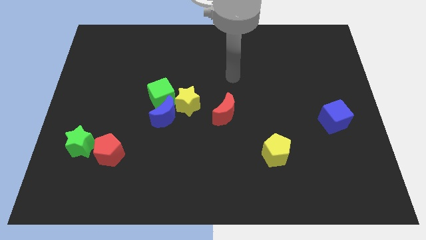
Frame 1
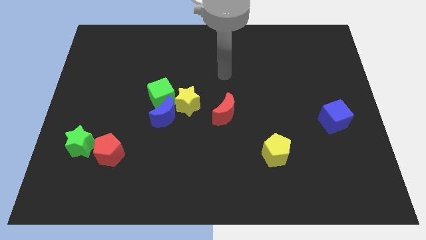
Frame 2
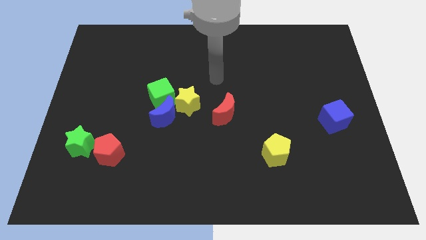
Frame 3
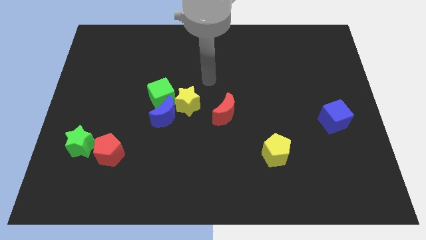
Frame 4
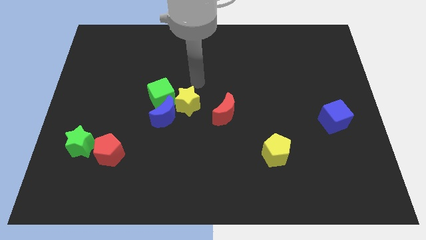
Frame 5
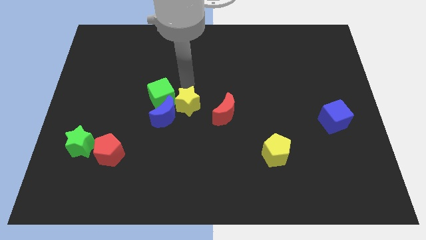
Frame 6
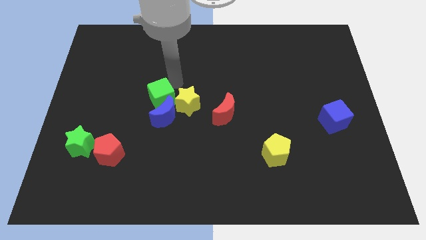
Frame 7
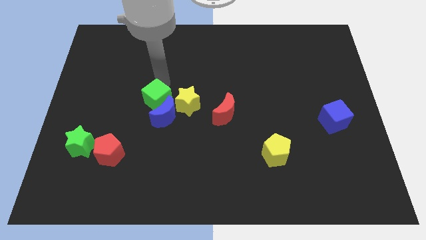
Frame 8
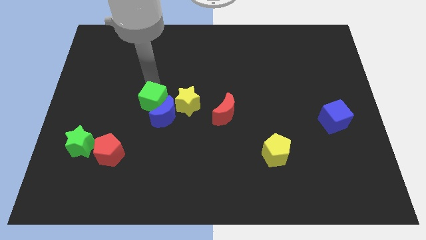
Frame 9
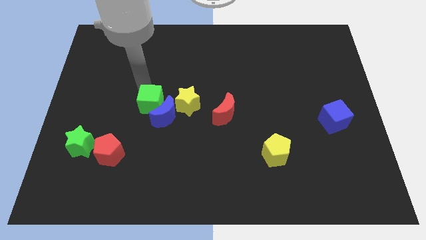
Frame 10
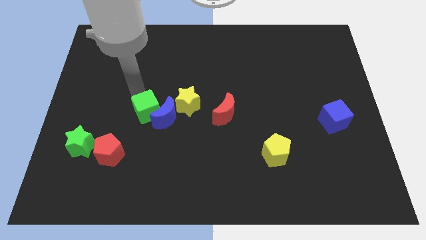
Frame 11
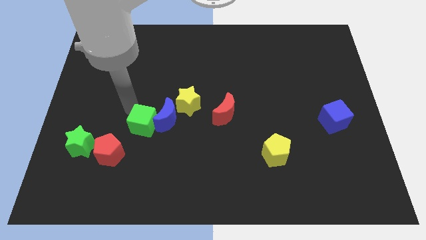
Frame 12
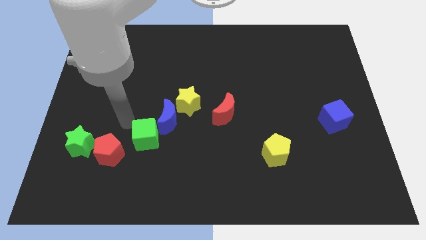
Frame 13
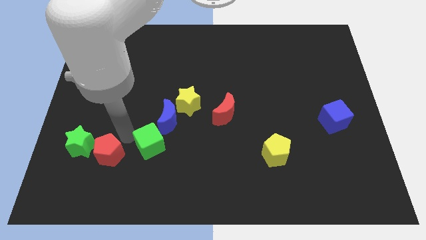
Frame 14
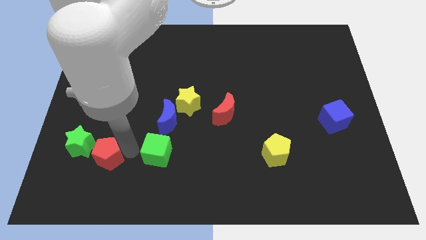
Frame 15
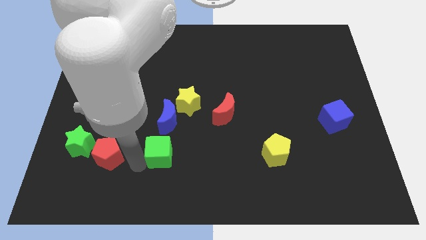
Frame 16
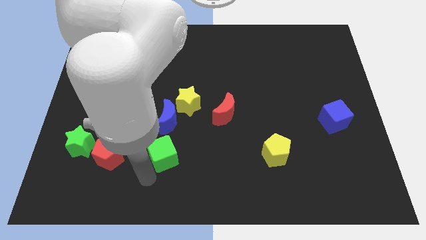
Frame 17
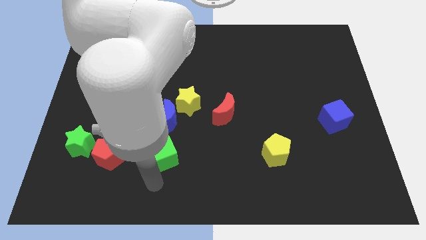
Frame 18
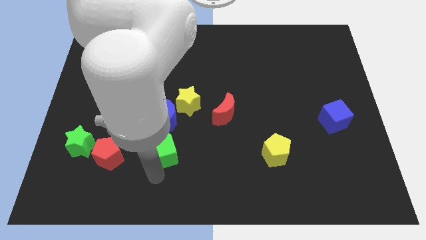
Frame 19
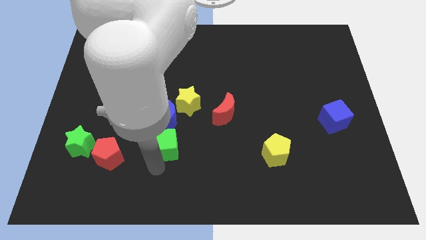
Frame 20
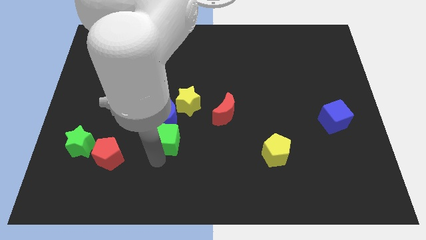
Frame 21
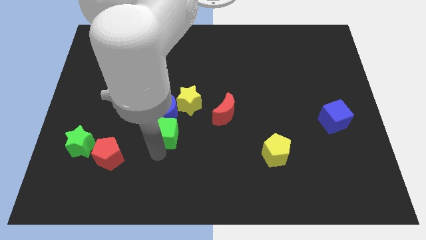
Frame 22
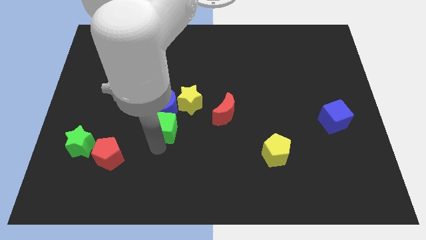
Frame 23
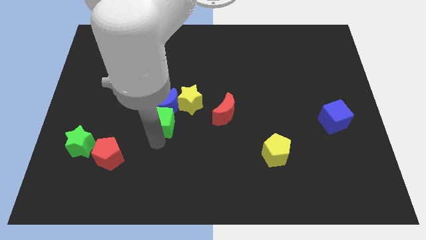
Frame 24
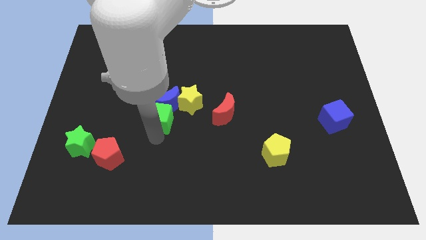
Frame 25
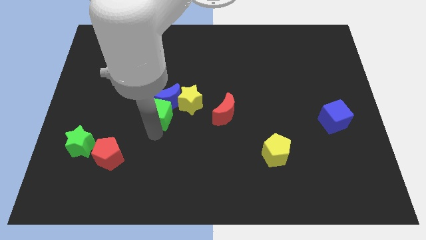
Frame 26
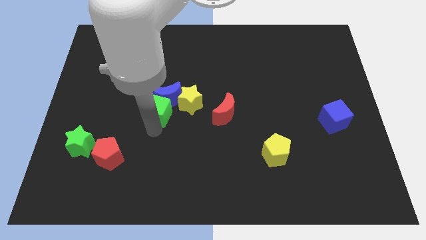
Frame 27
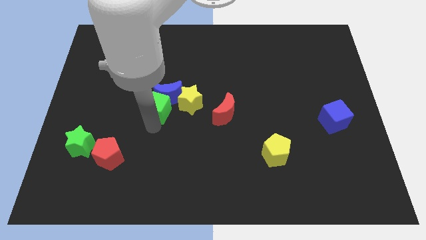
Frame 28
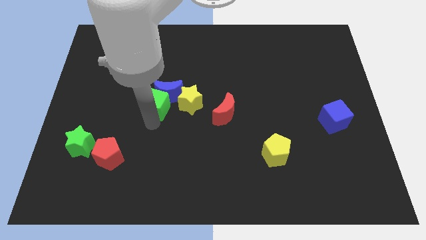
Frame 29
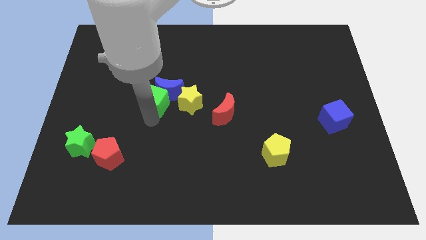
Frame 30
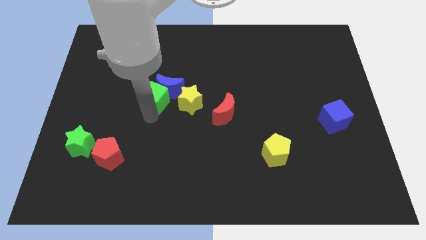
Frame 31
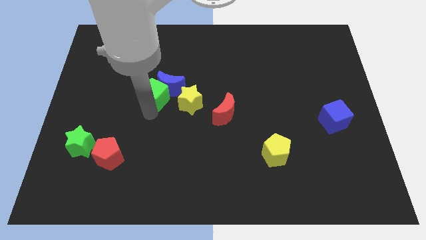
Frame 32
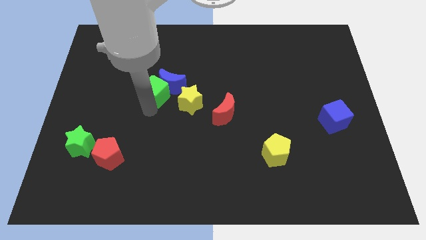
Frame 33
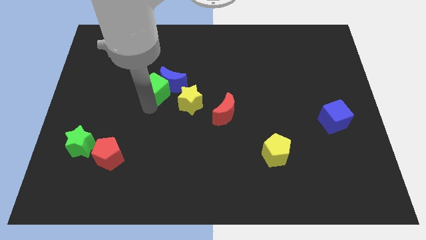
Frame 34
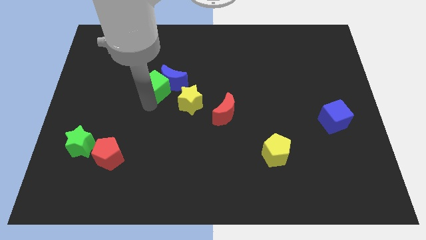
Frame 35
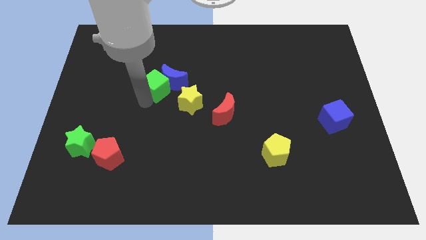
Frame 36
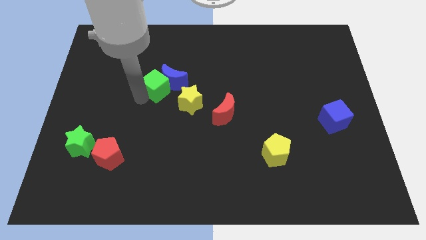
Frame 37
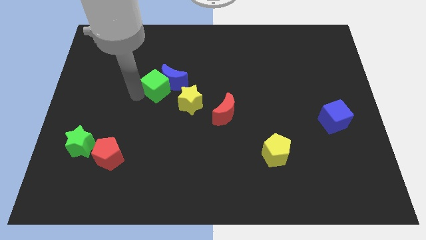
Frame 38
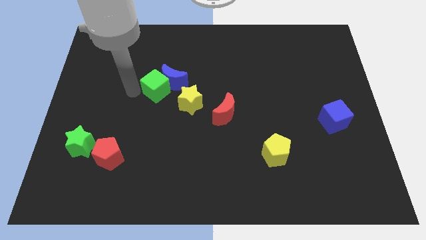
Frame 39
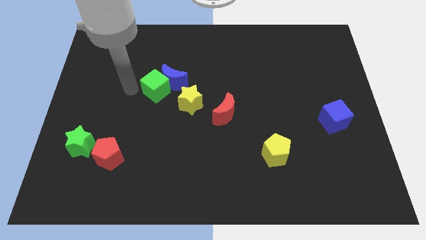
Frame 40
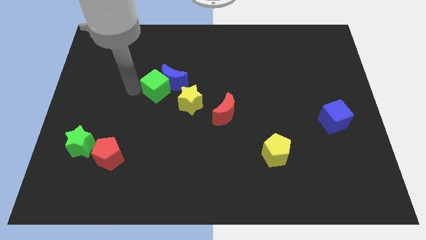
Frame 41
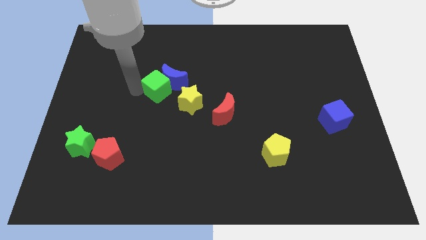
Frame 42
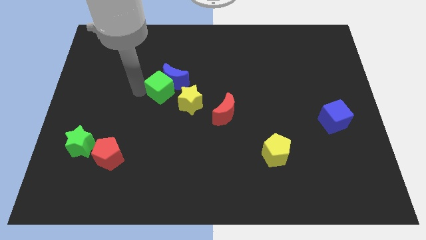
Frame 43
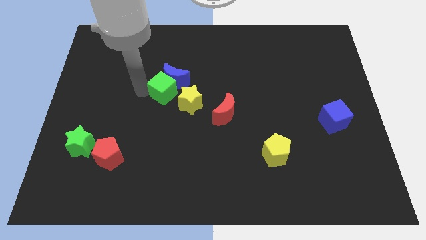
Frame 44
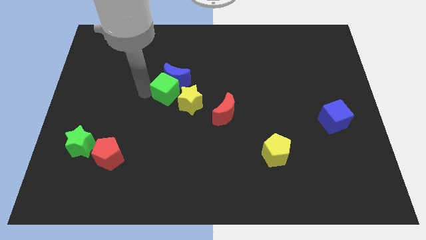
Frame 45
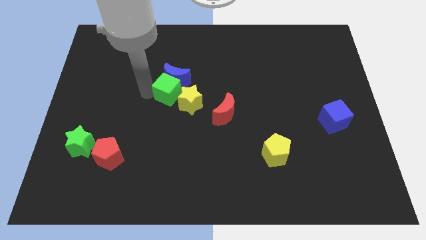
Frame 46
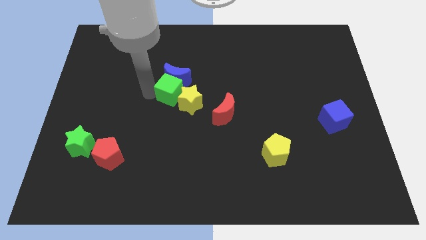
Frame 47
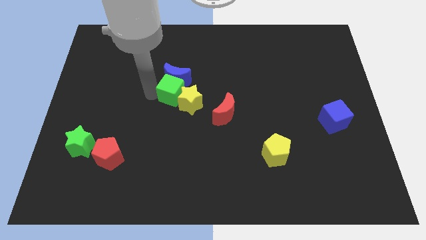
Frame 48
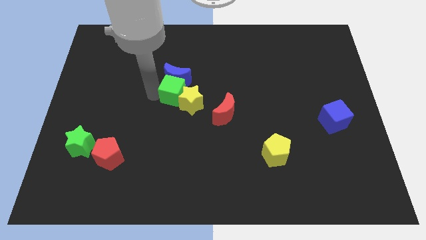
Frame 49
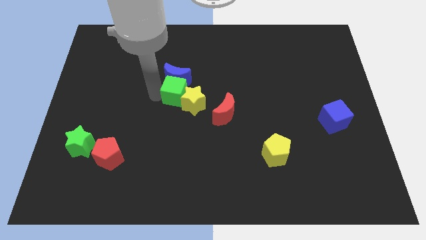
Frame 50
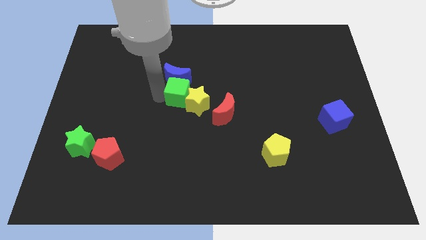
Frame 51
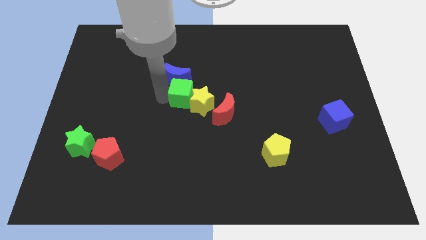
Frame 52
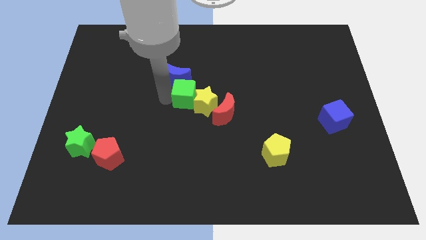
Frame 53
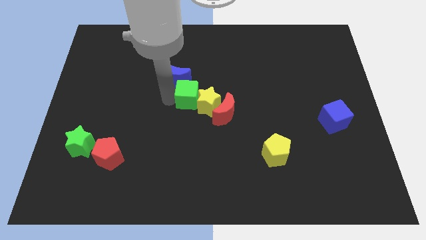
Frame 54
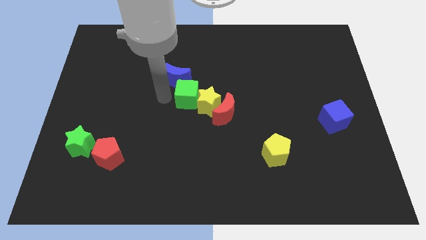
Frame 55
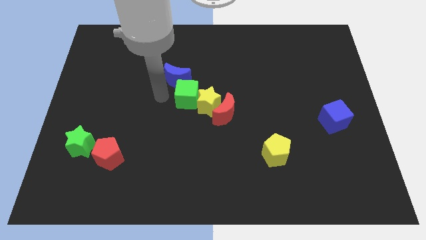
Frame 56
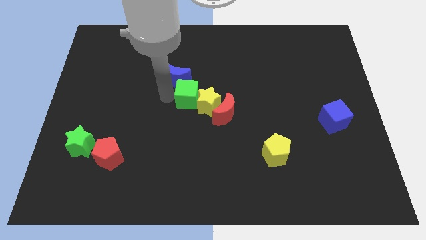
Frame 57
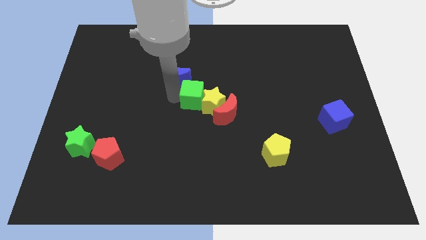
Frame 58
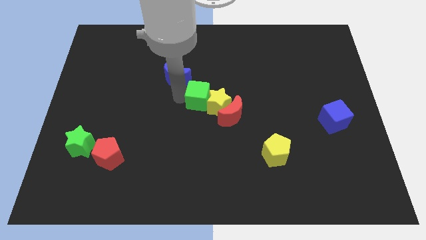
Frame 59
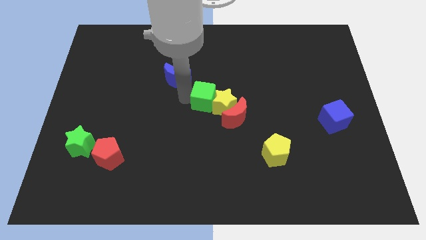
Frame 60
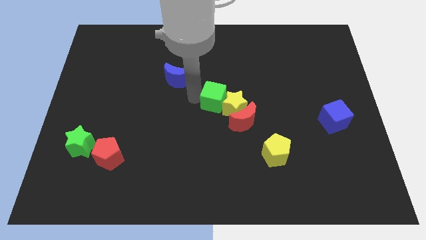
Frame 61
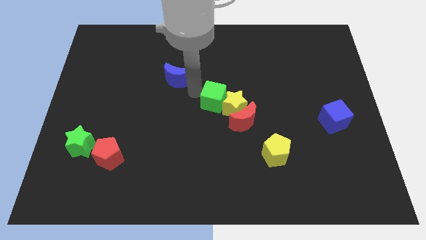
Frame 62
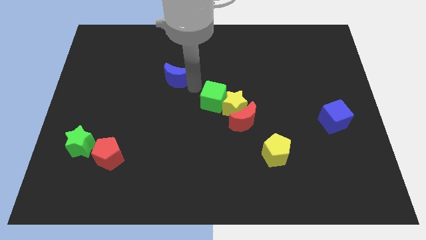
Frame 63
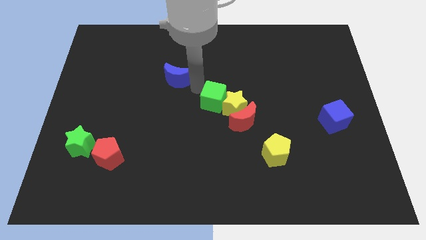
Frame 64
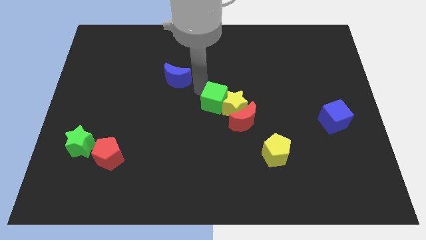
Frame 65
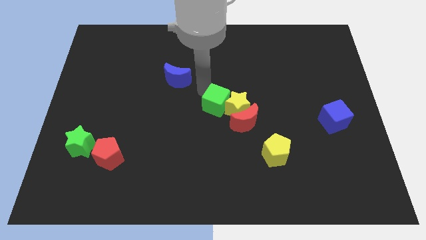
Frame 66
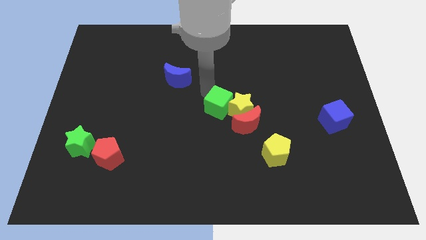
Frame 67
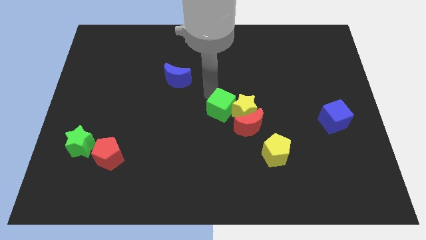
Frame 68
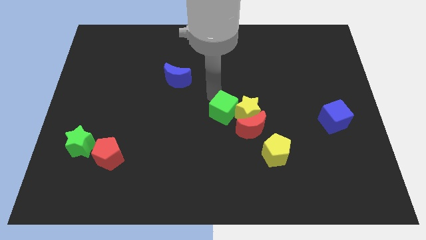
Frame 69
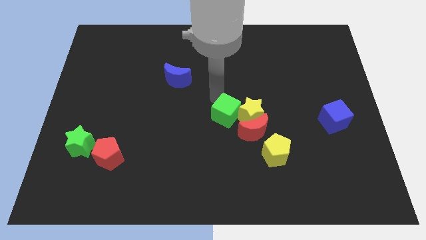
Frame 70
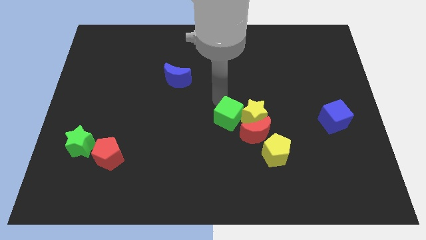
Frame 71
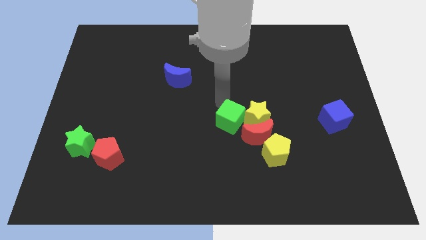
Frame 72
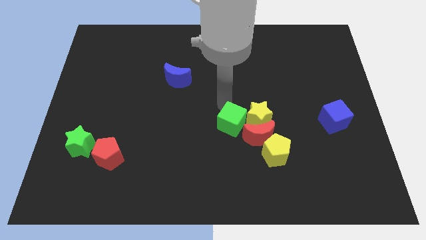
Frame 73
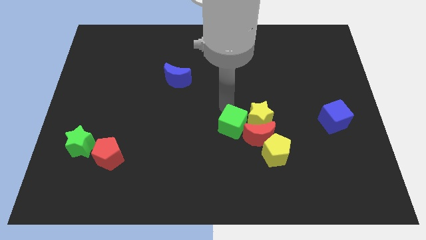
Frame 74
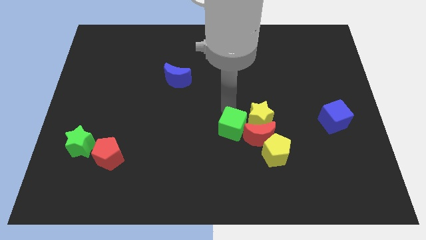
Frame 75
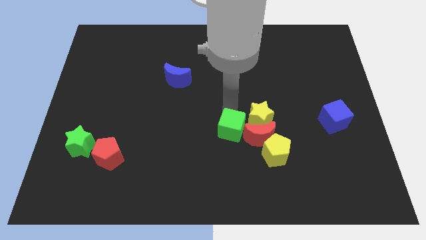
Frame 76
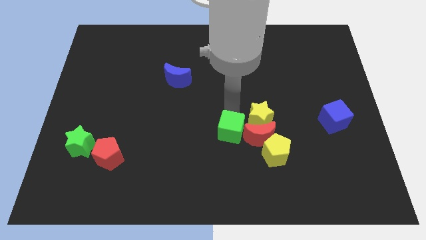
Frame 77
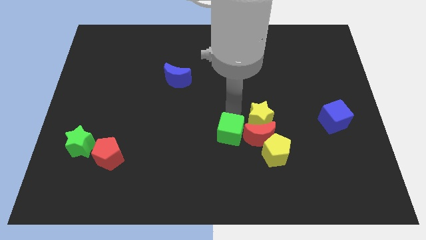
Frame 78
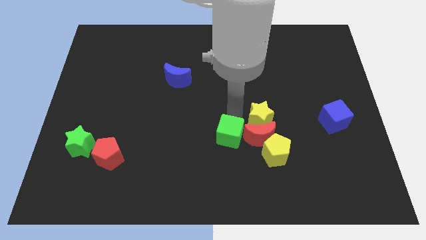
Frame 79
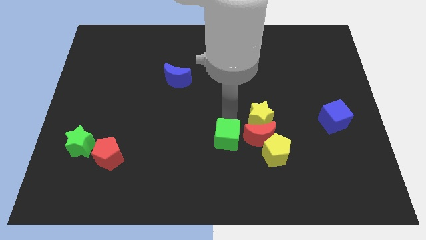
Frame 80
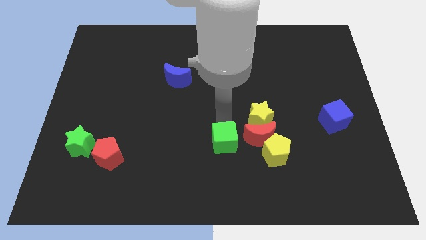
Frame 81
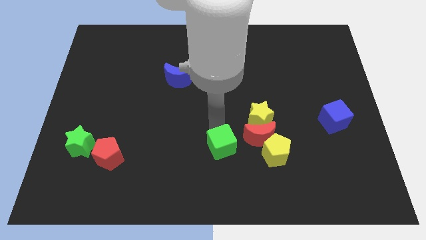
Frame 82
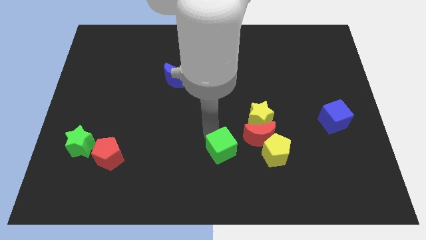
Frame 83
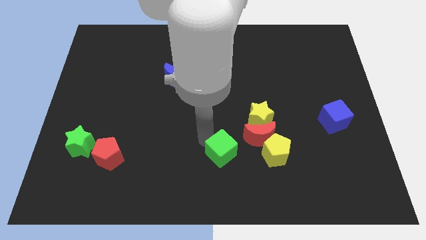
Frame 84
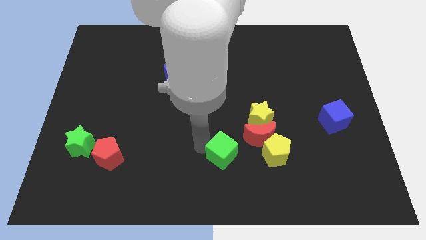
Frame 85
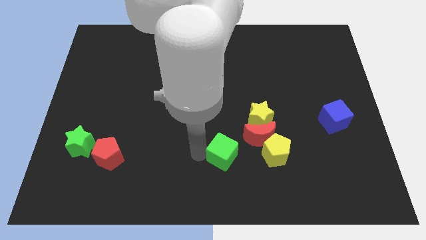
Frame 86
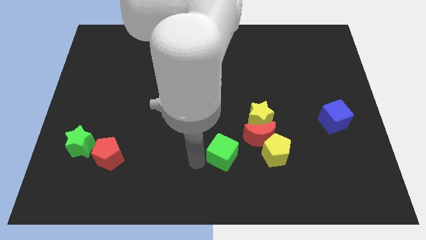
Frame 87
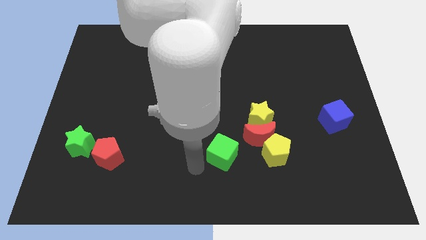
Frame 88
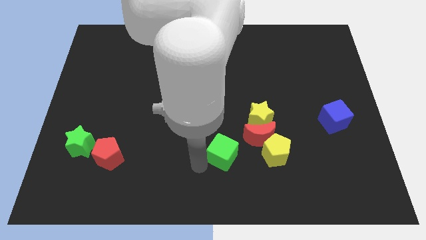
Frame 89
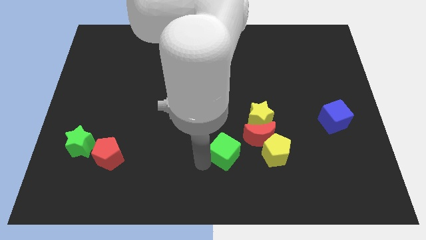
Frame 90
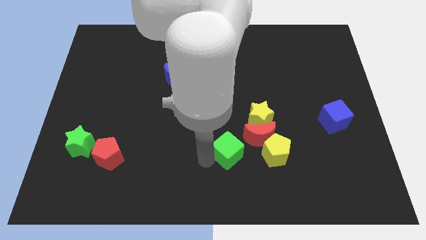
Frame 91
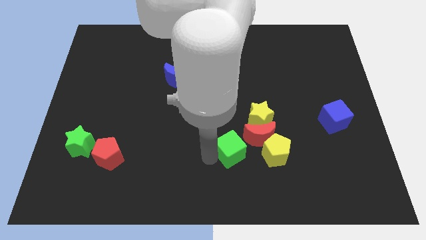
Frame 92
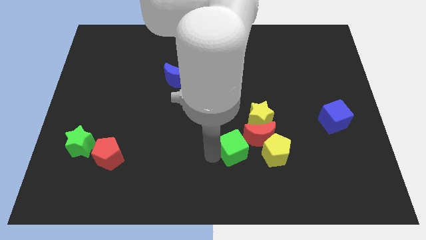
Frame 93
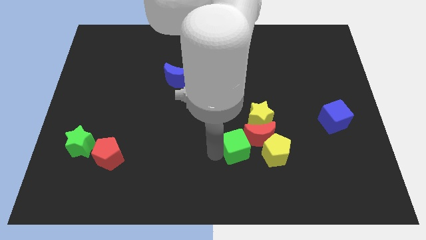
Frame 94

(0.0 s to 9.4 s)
move the green cube to the red moon
